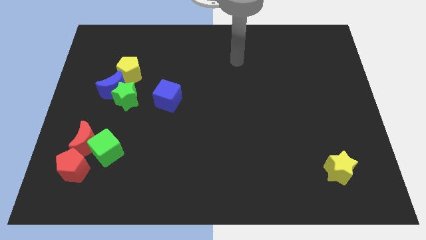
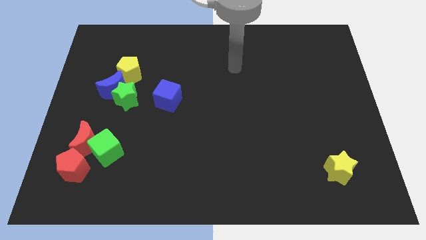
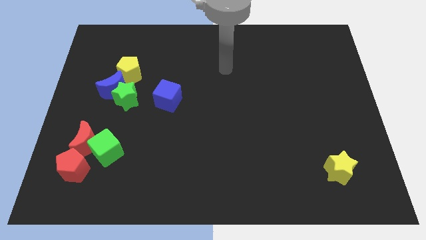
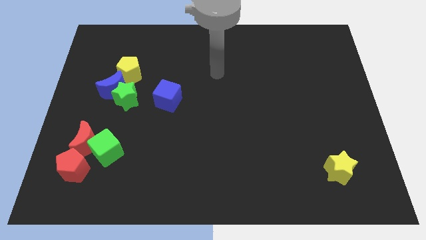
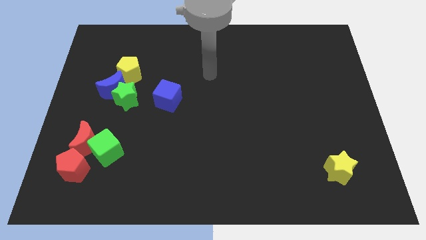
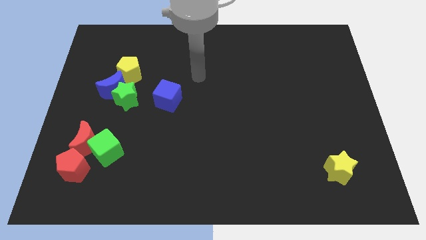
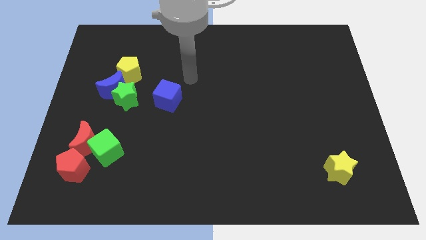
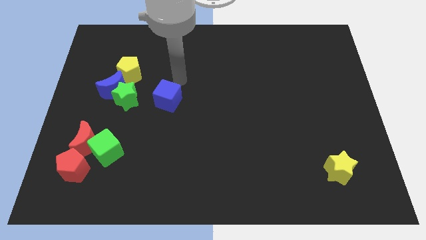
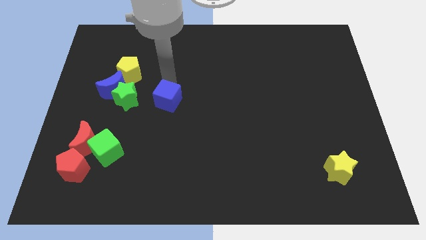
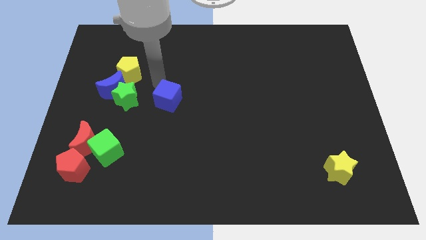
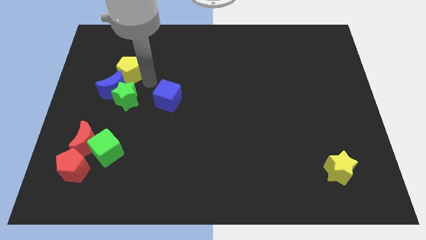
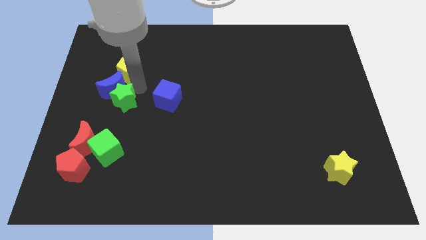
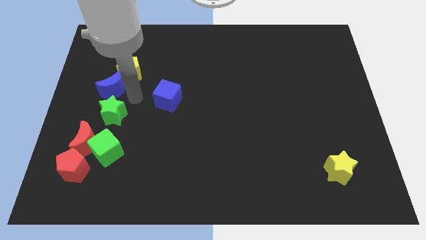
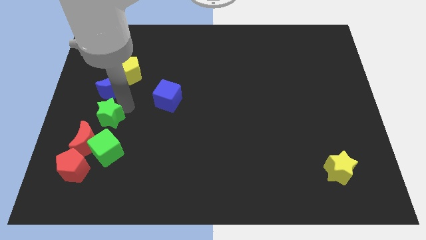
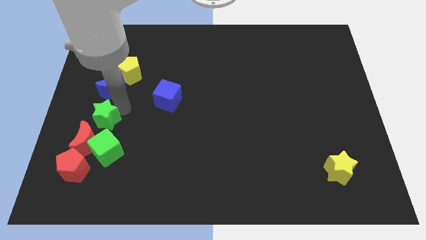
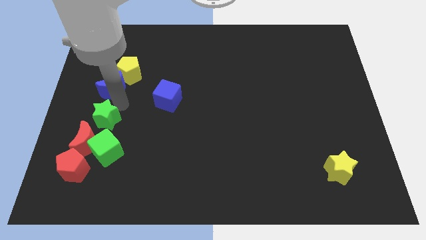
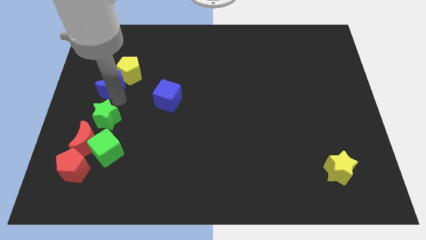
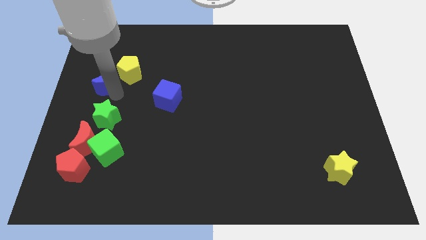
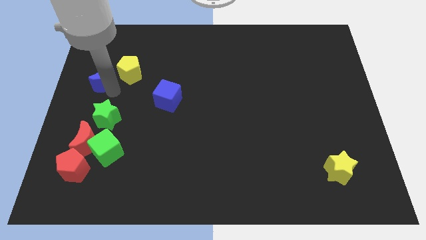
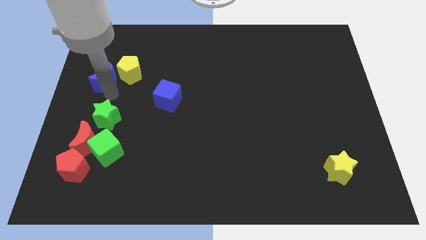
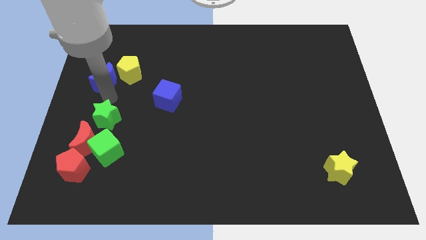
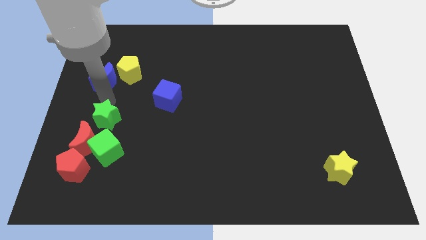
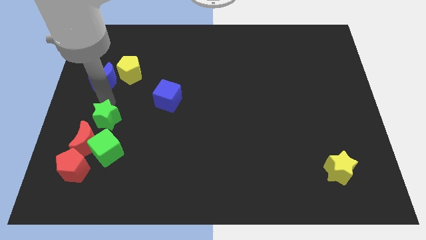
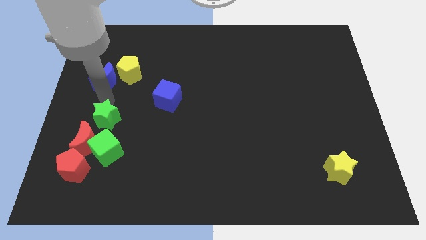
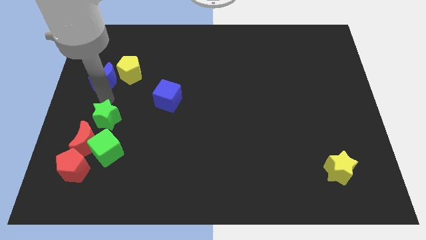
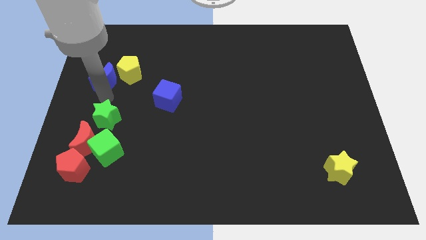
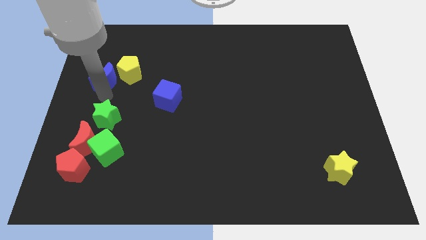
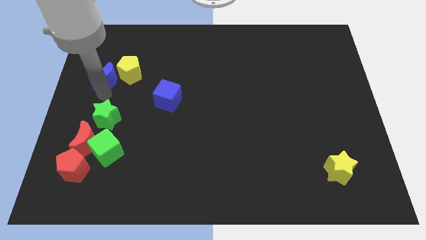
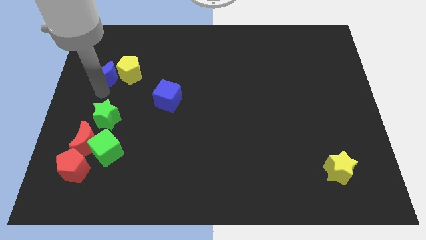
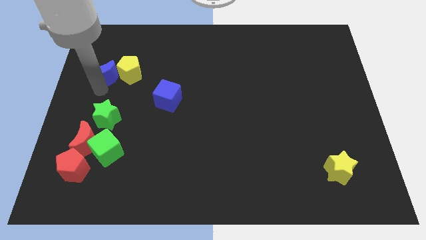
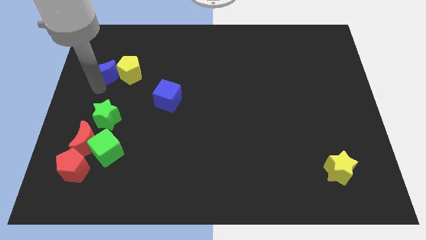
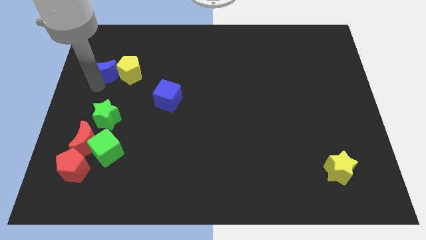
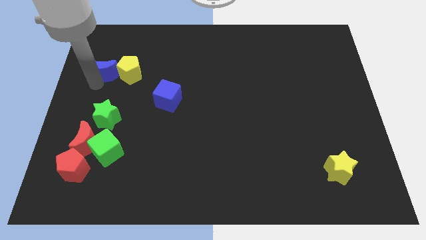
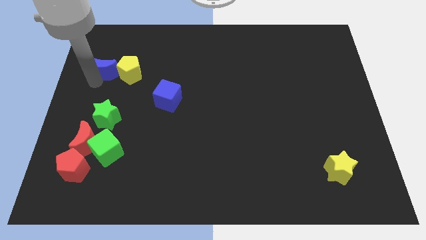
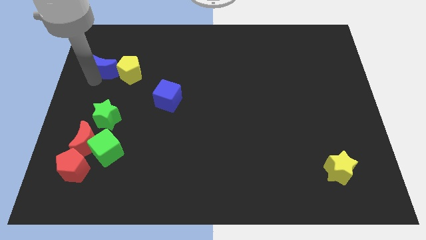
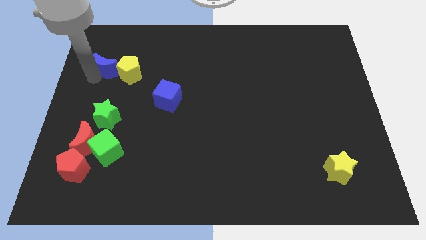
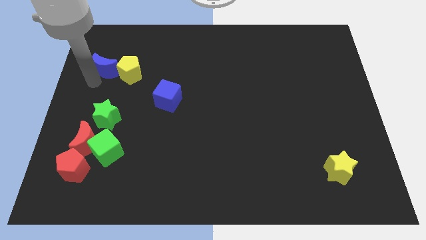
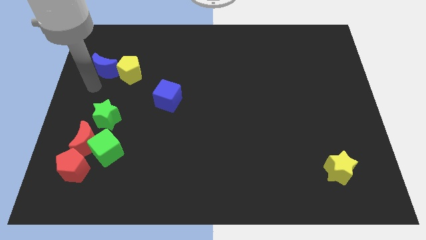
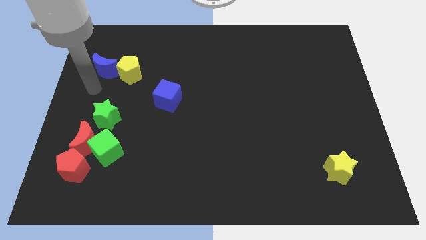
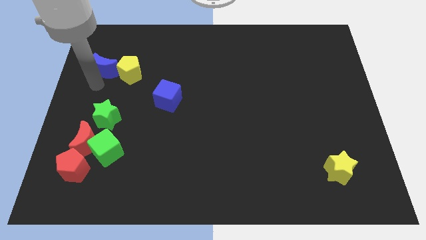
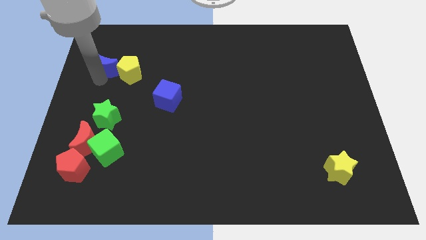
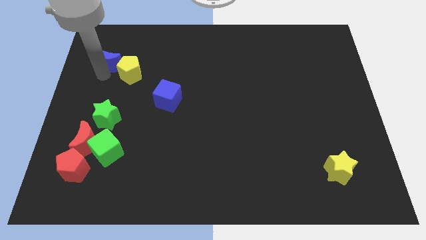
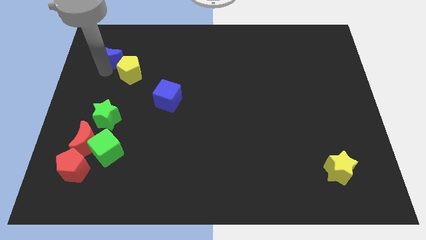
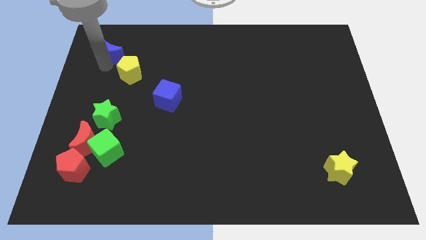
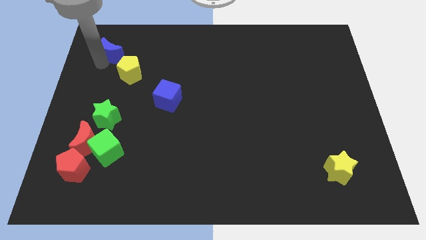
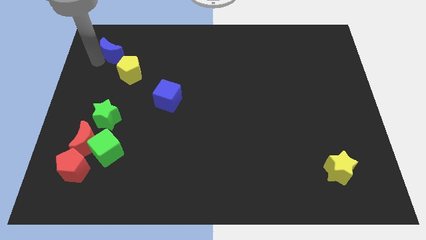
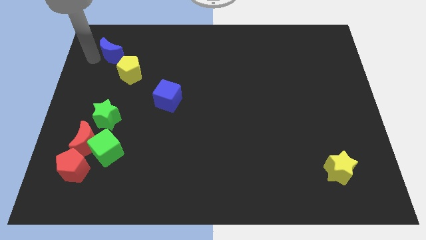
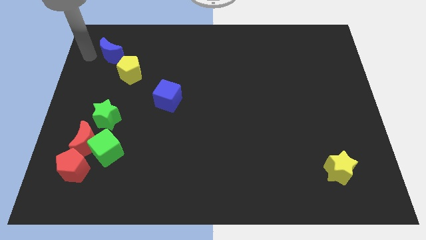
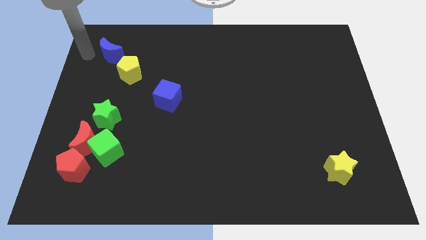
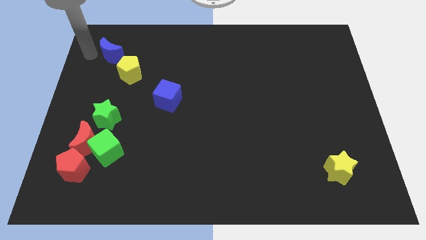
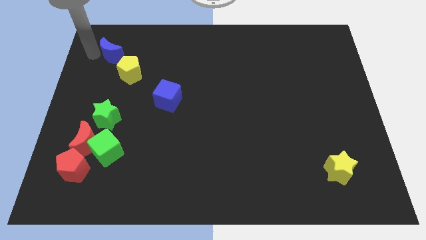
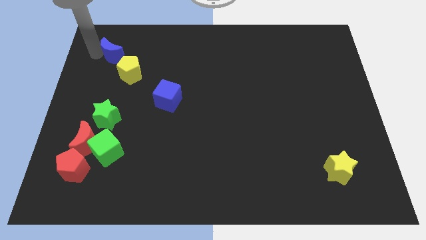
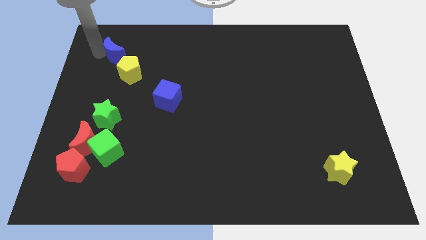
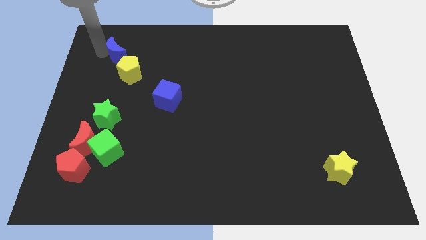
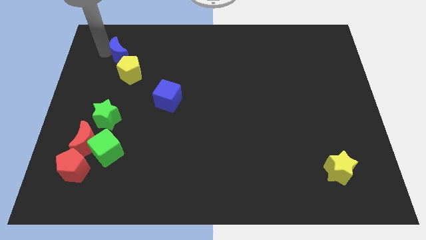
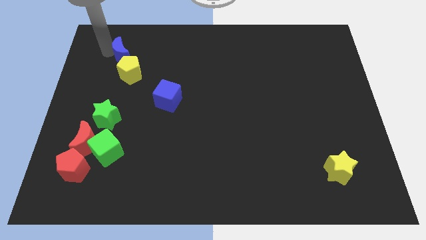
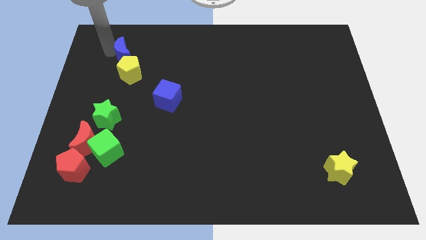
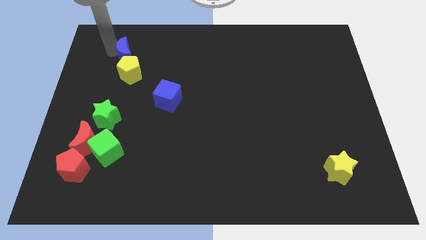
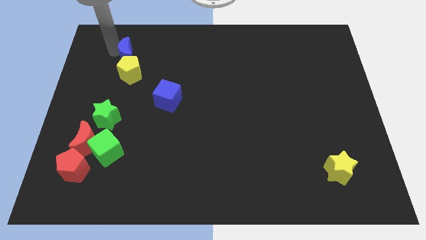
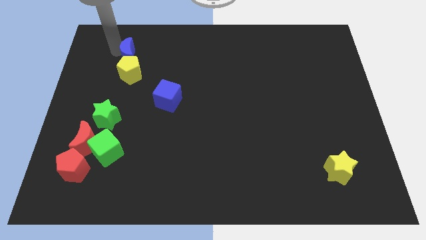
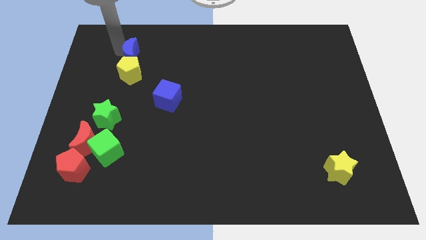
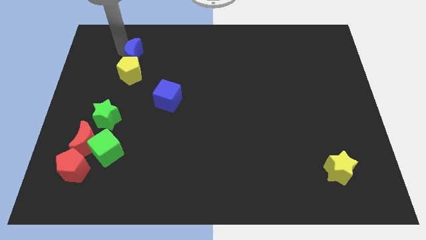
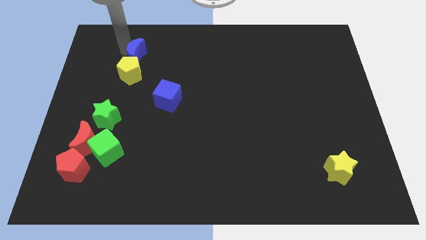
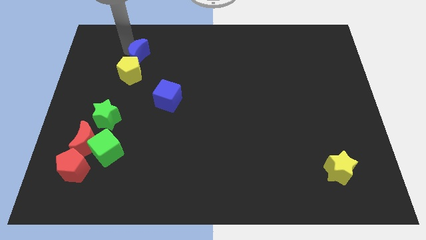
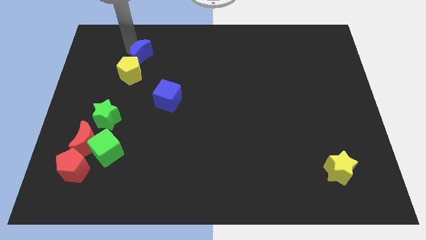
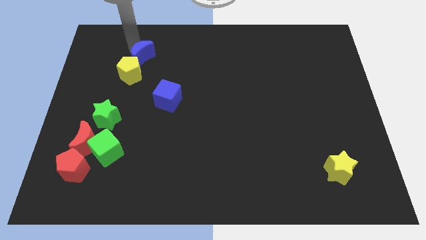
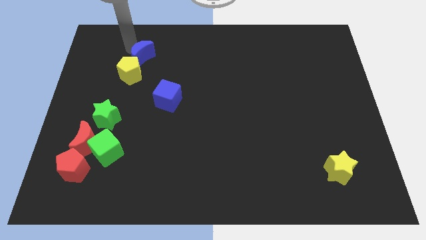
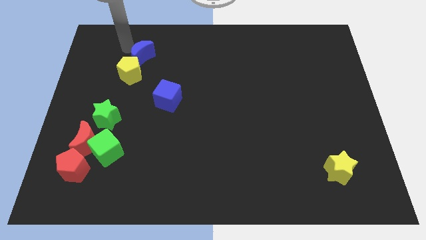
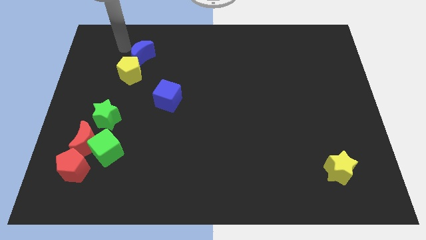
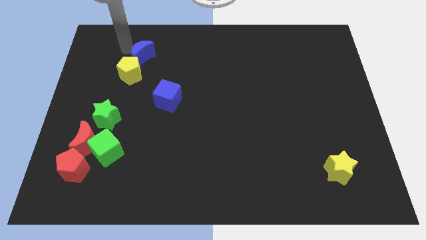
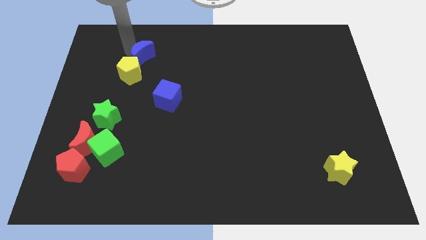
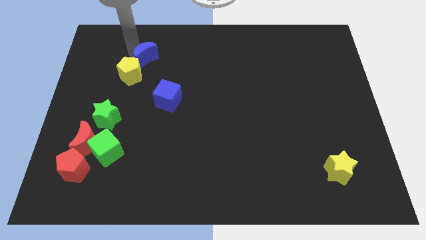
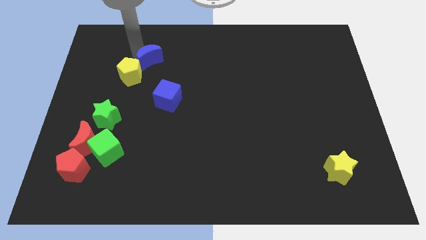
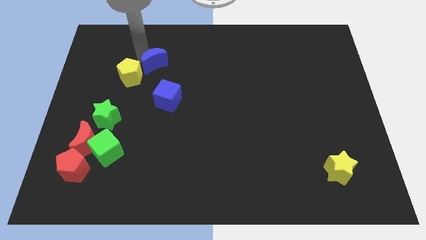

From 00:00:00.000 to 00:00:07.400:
push the blue moon to the top of the blue cube
